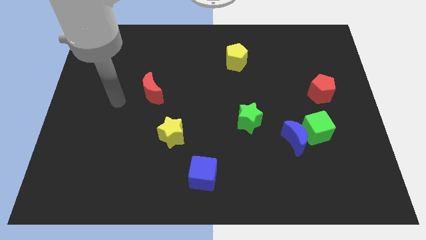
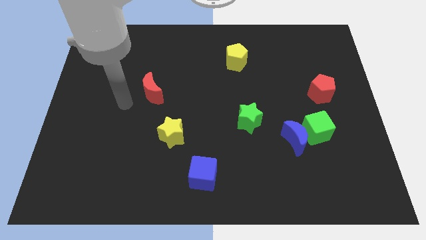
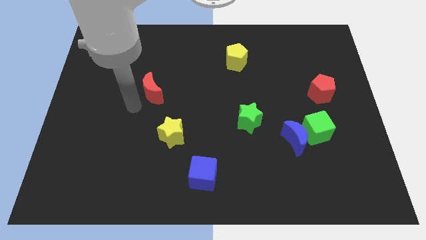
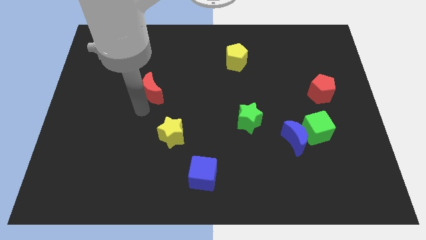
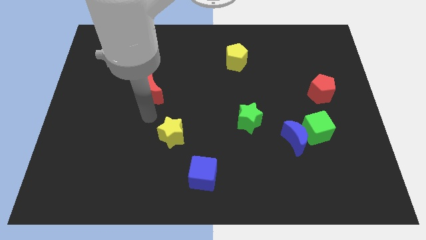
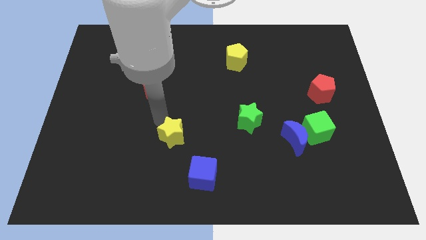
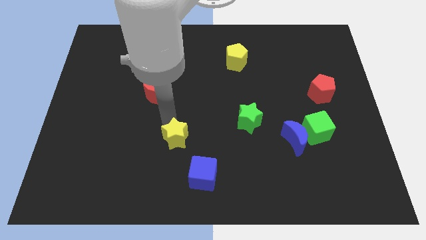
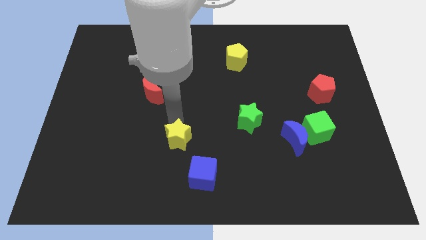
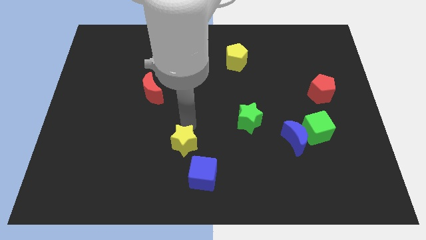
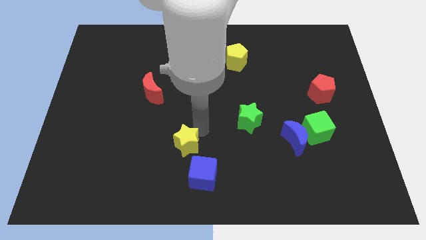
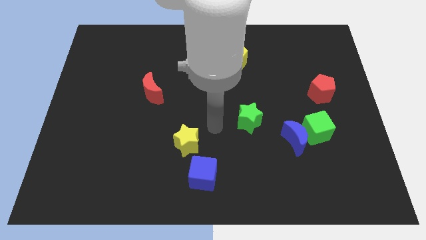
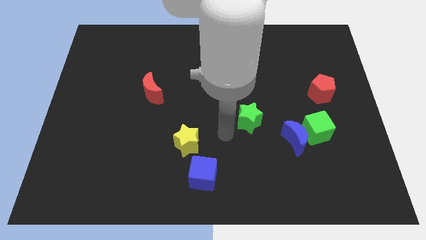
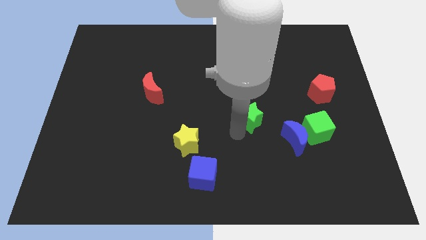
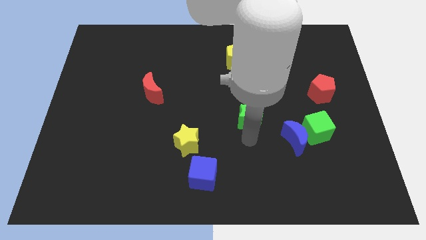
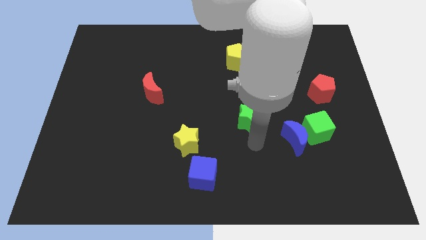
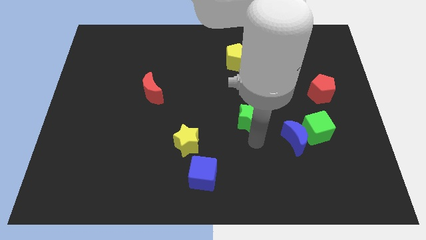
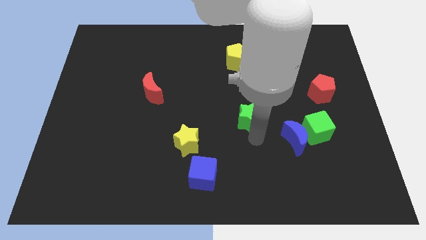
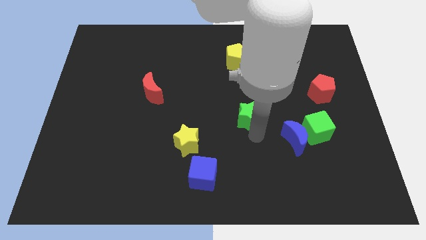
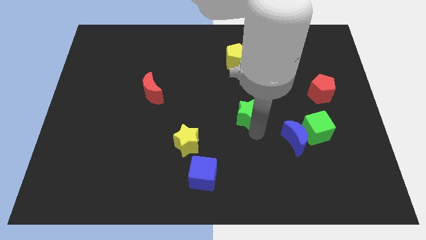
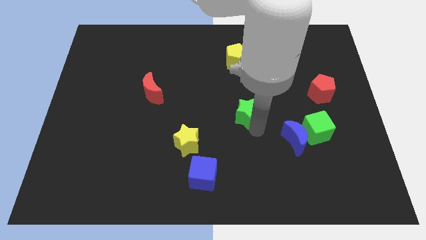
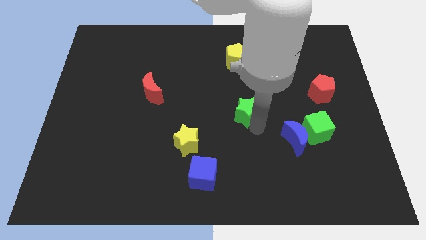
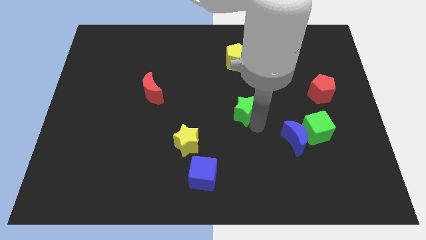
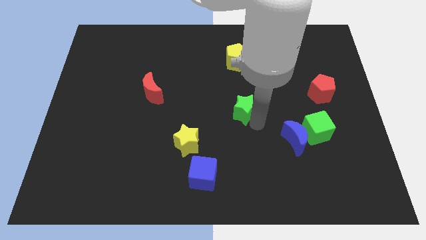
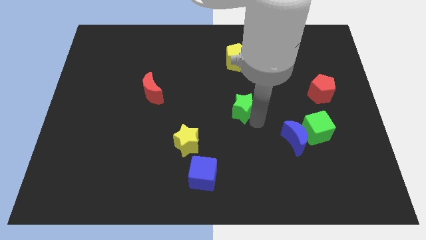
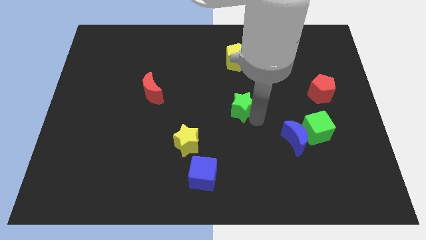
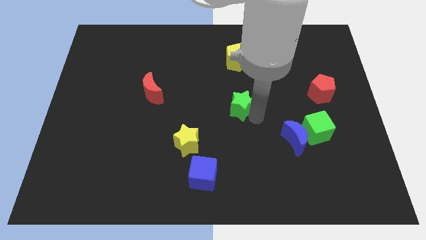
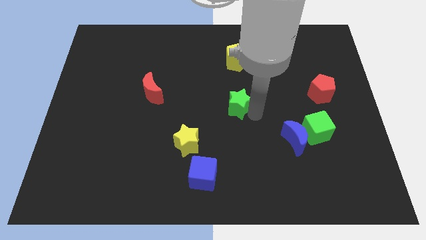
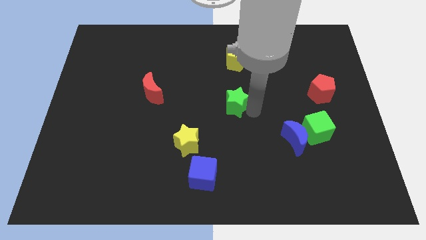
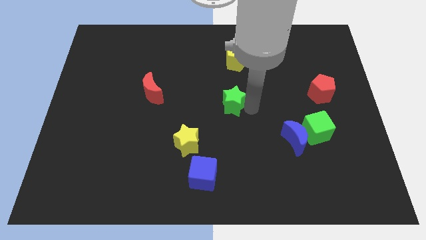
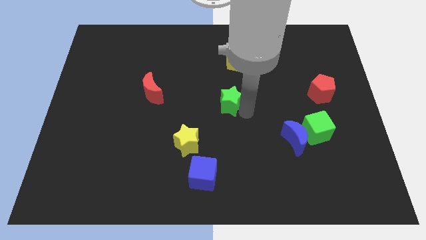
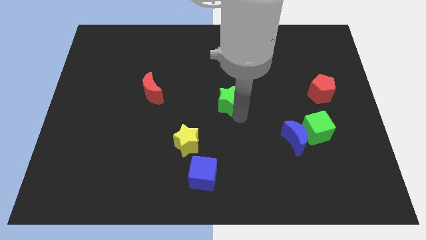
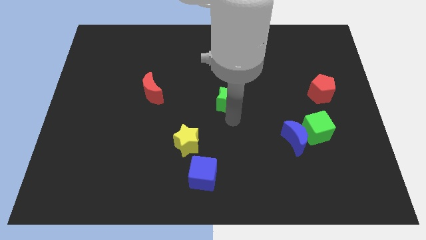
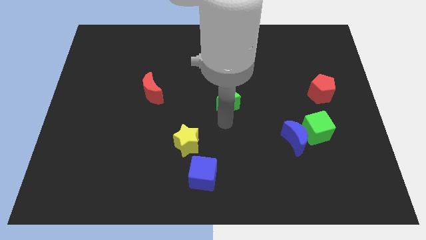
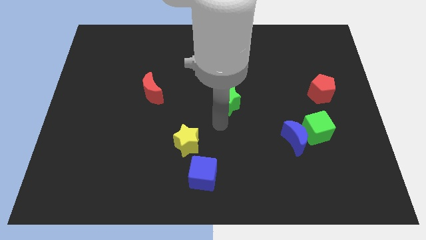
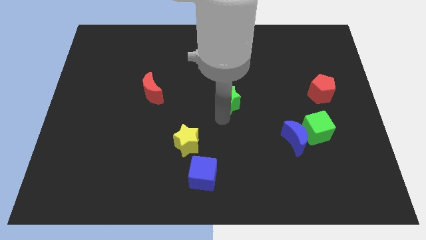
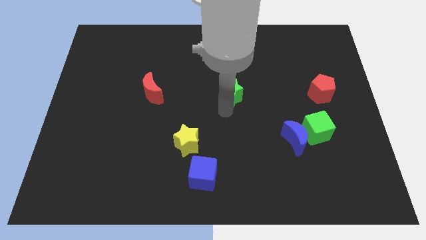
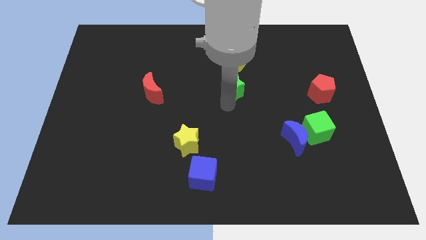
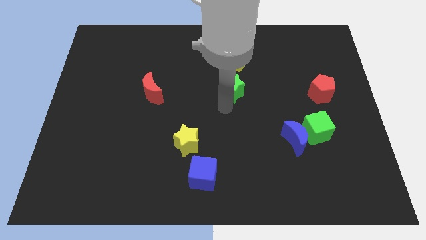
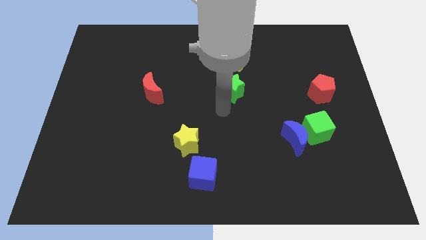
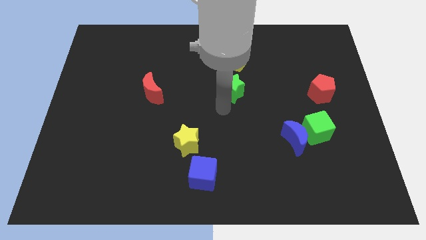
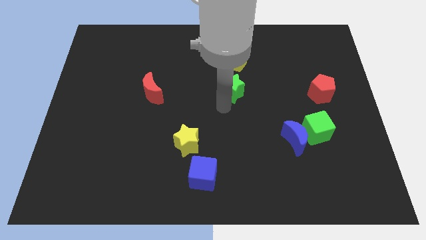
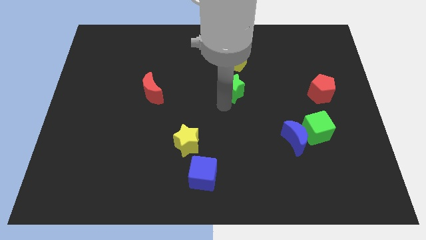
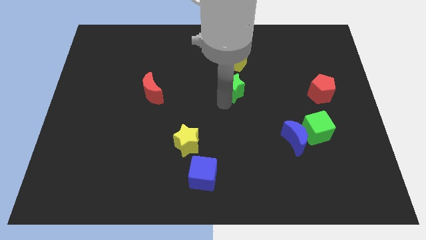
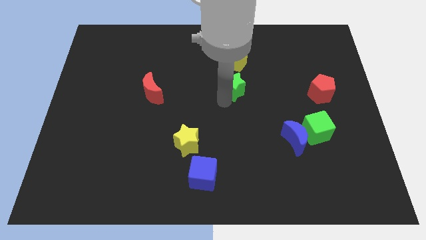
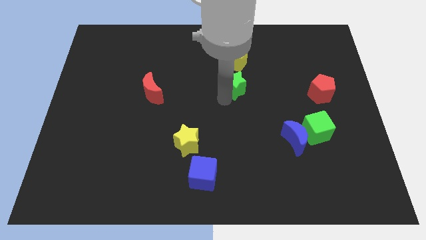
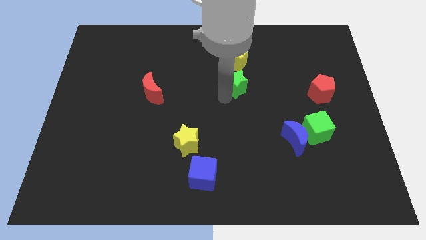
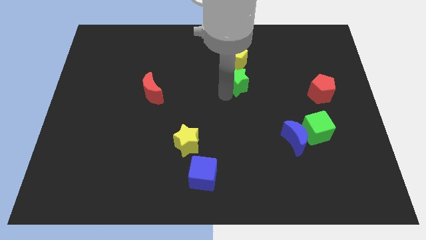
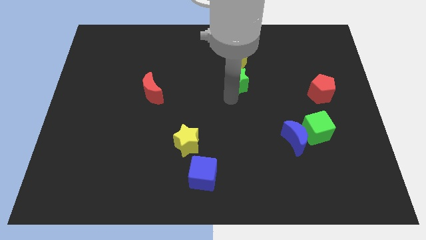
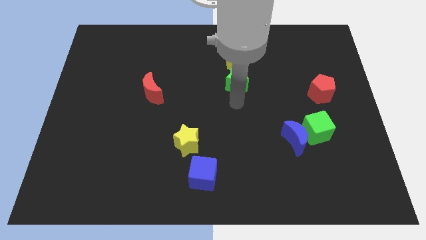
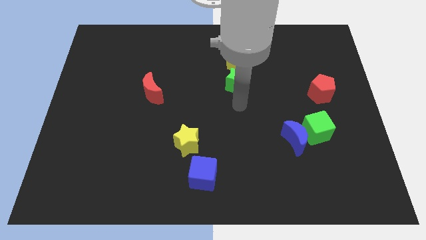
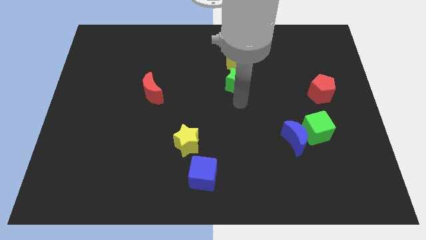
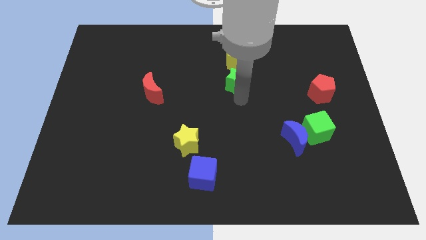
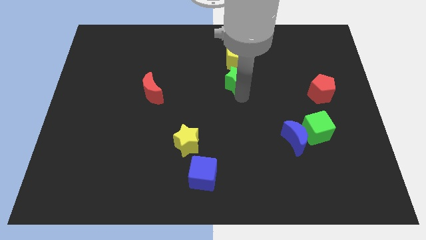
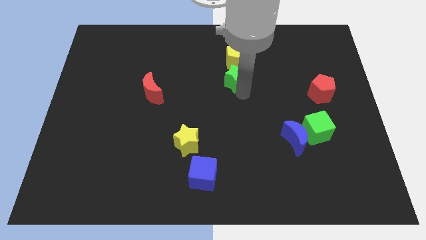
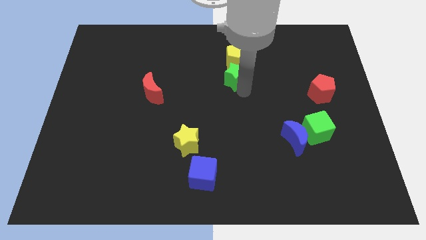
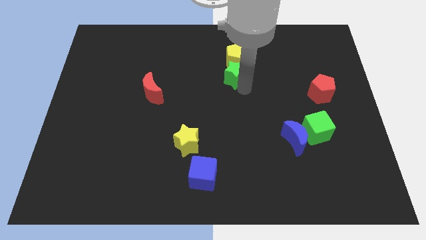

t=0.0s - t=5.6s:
push the green star to the yellow pentagon
